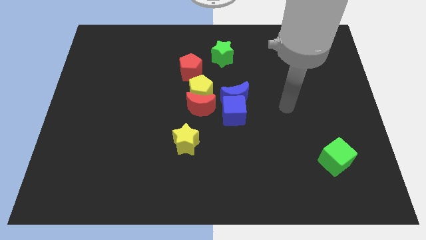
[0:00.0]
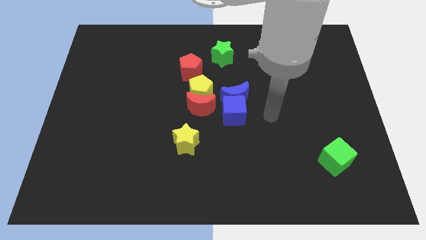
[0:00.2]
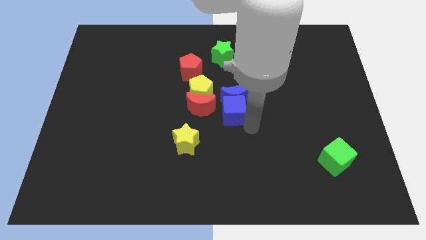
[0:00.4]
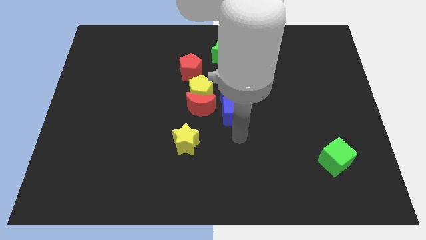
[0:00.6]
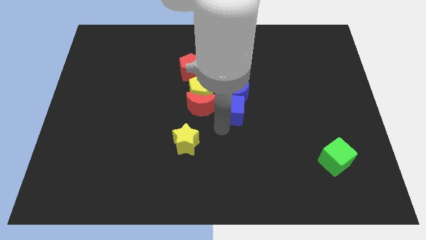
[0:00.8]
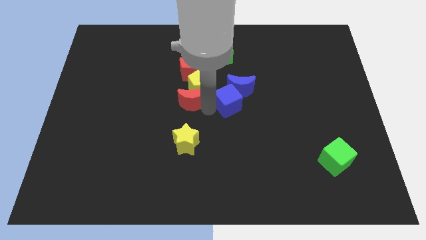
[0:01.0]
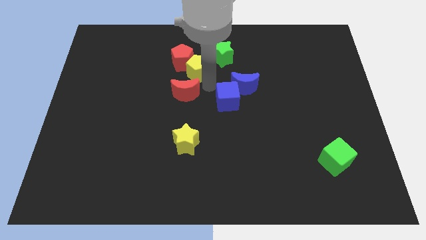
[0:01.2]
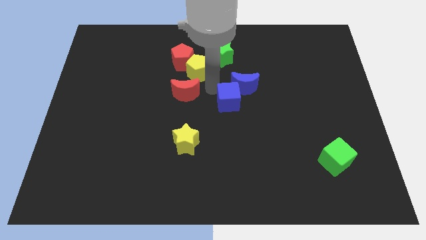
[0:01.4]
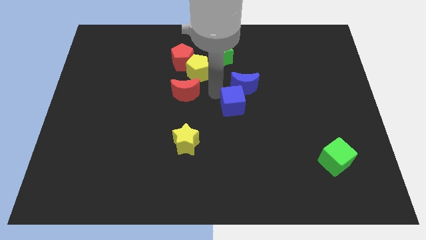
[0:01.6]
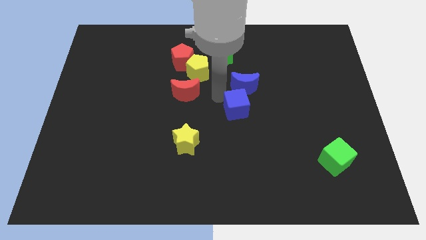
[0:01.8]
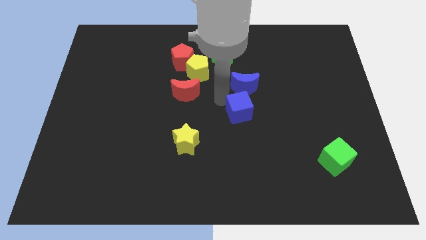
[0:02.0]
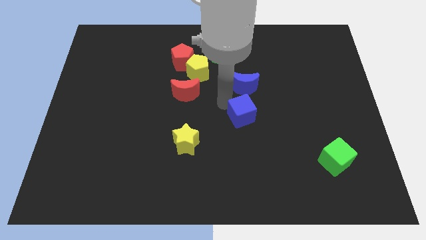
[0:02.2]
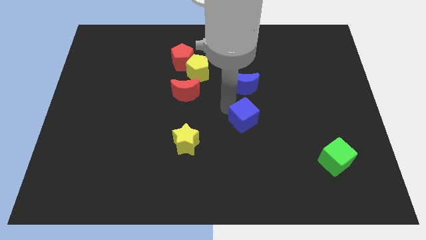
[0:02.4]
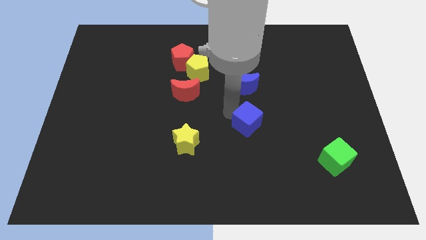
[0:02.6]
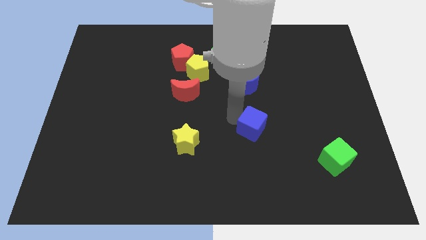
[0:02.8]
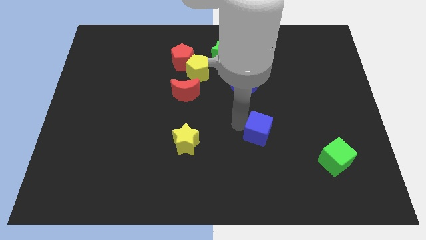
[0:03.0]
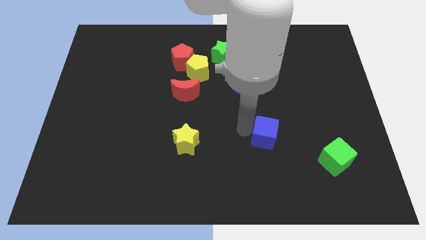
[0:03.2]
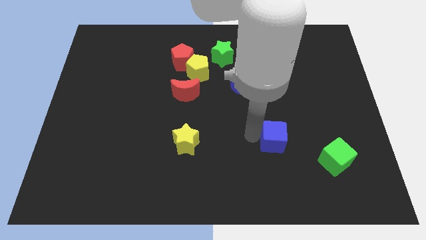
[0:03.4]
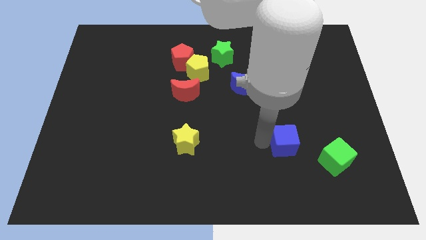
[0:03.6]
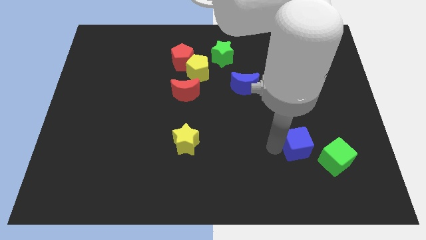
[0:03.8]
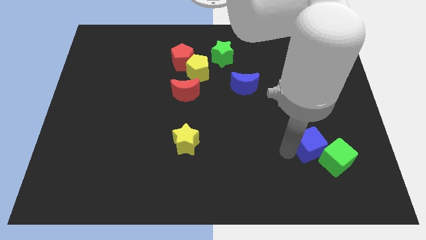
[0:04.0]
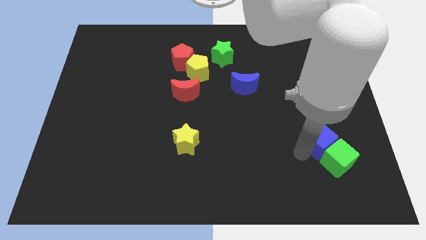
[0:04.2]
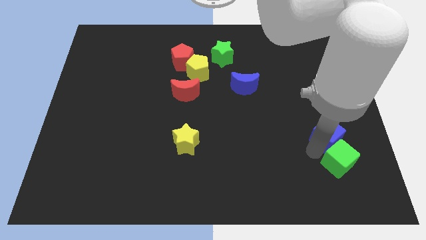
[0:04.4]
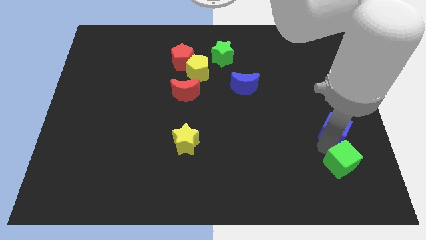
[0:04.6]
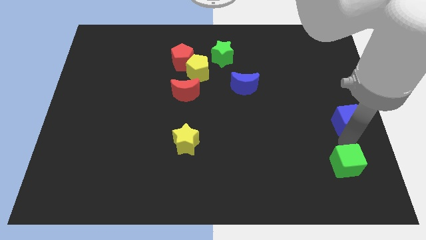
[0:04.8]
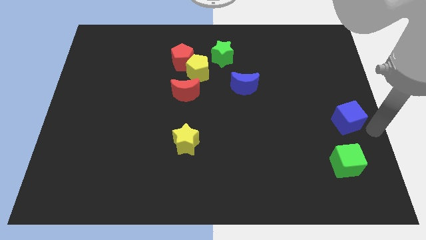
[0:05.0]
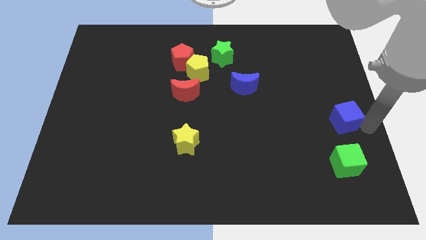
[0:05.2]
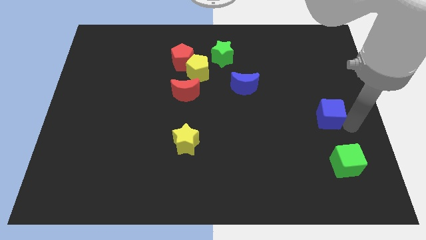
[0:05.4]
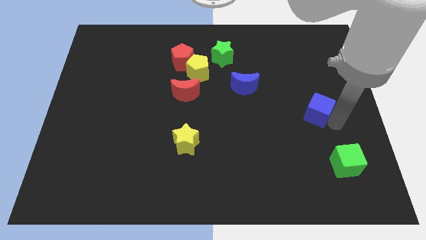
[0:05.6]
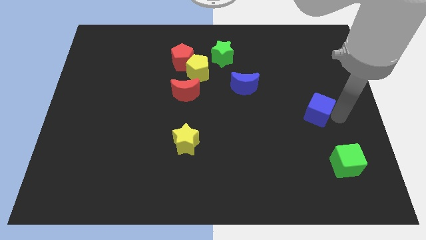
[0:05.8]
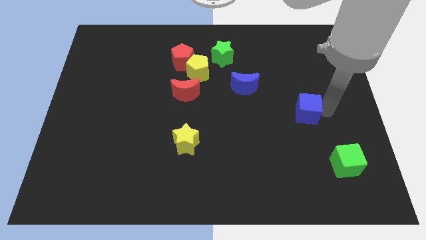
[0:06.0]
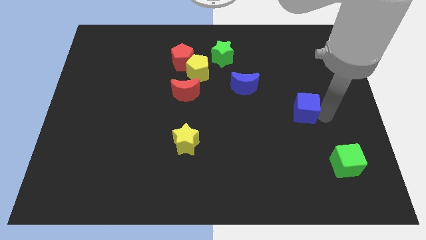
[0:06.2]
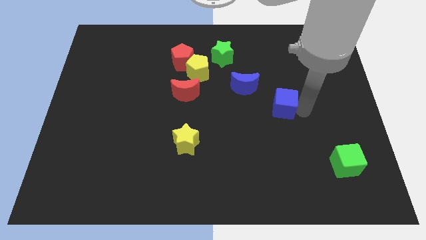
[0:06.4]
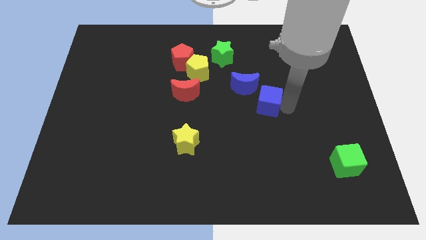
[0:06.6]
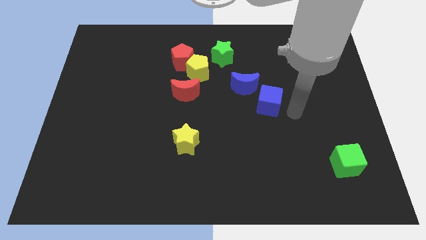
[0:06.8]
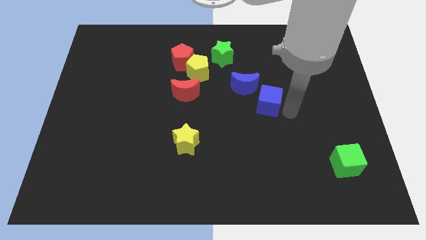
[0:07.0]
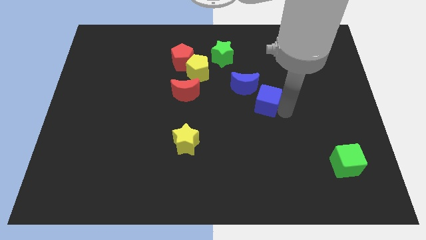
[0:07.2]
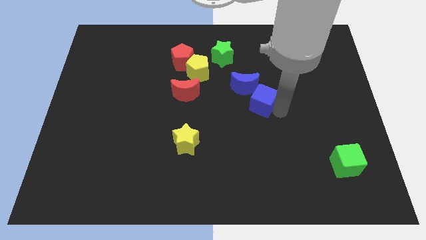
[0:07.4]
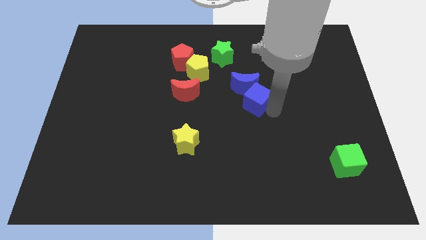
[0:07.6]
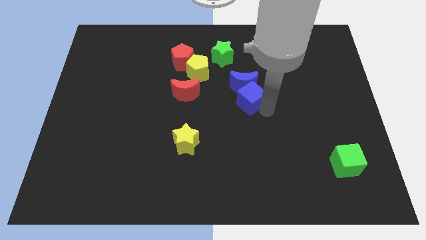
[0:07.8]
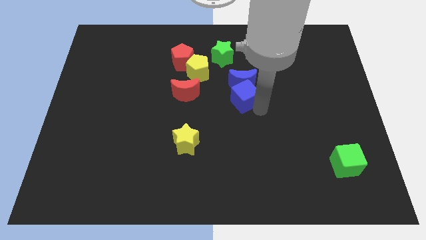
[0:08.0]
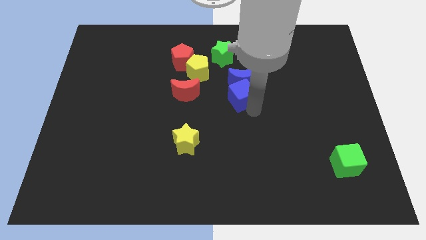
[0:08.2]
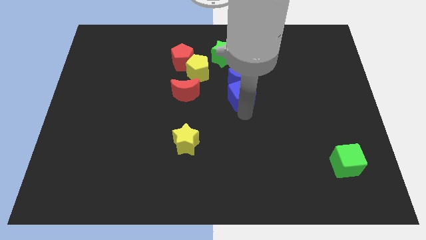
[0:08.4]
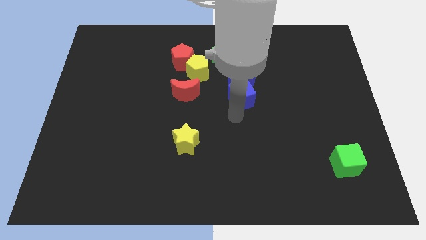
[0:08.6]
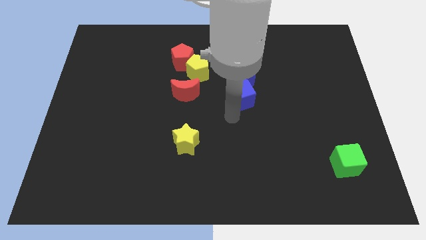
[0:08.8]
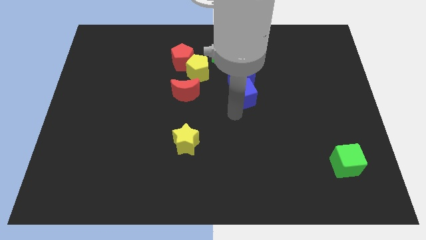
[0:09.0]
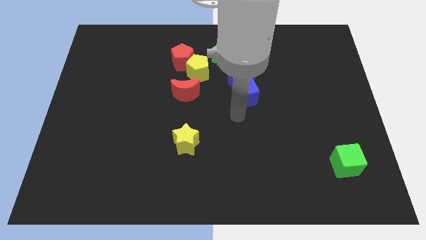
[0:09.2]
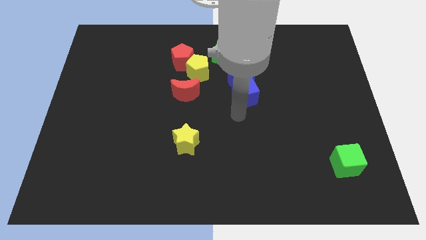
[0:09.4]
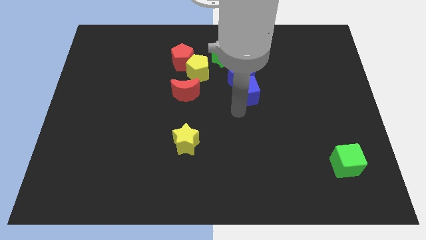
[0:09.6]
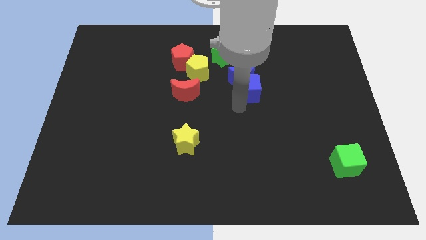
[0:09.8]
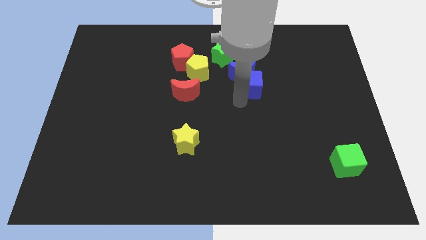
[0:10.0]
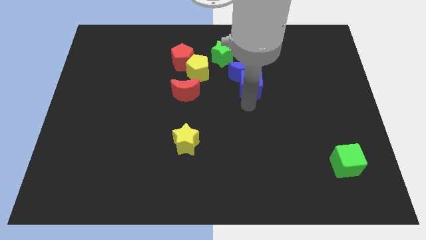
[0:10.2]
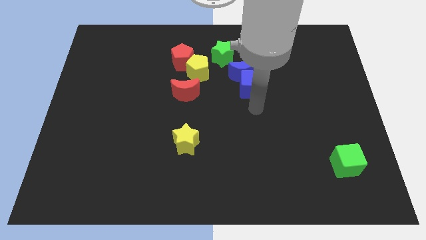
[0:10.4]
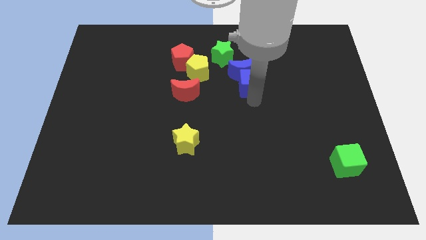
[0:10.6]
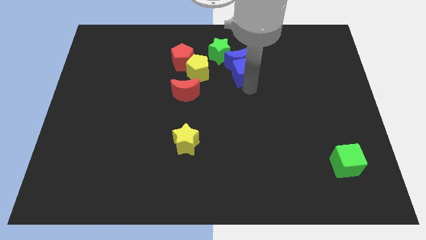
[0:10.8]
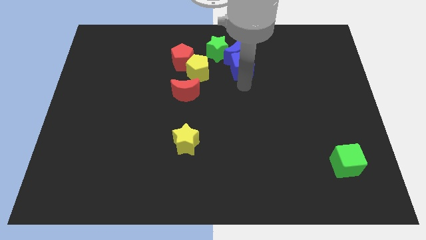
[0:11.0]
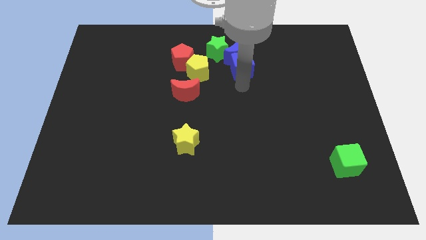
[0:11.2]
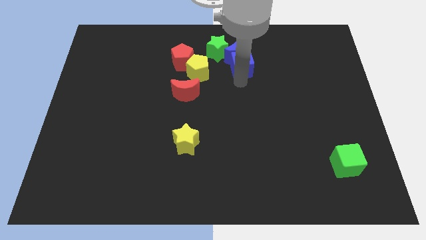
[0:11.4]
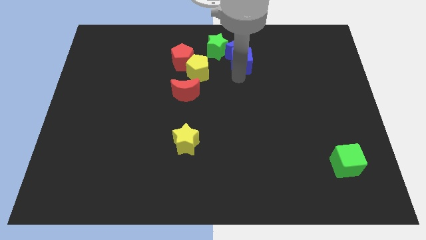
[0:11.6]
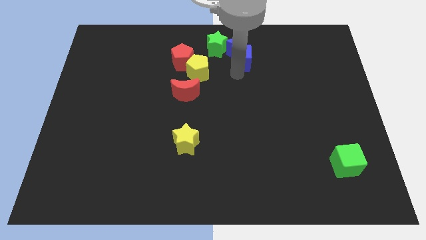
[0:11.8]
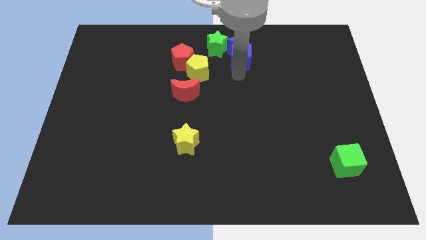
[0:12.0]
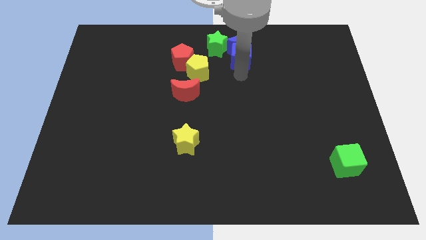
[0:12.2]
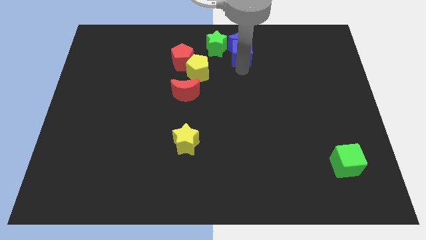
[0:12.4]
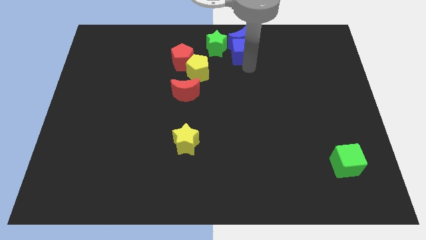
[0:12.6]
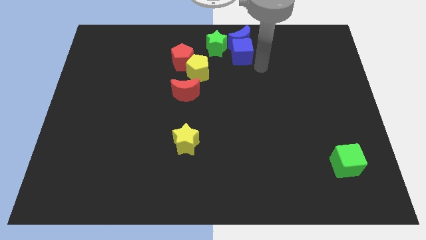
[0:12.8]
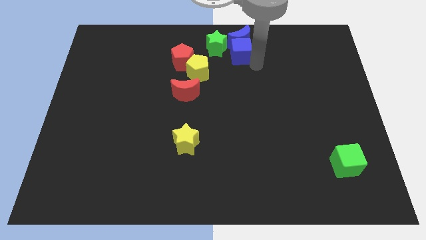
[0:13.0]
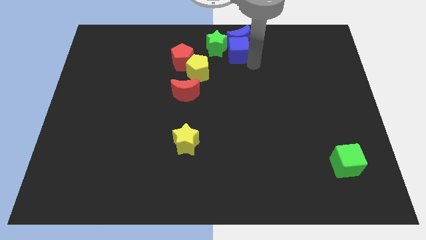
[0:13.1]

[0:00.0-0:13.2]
move the blue cube to the top side
